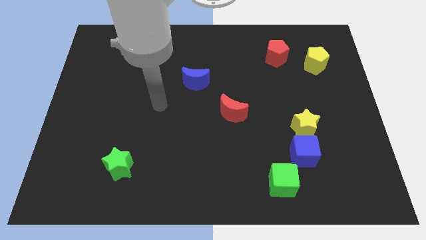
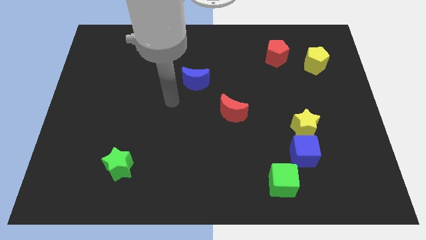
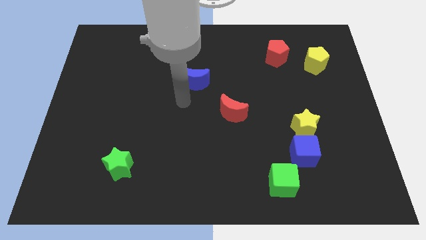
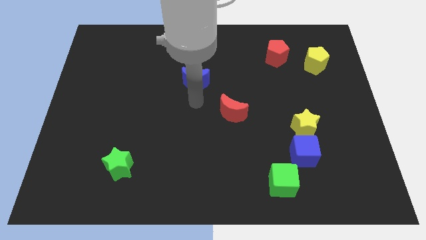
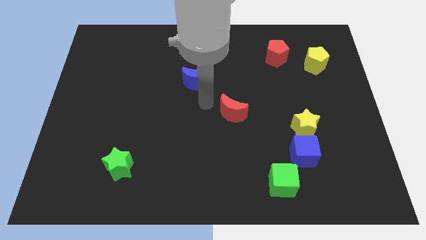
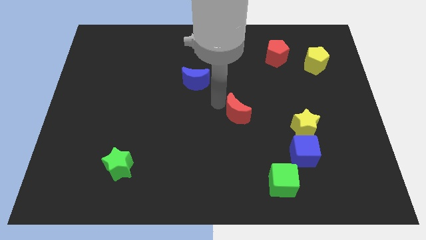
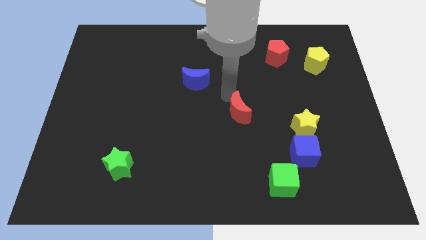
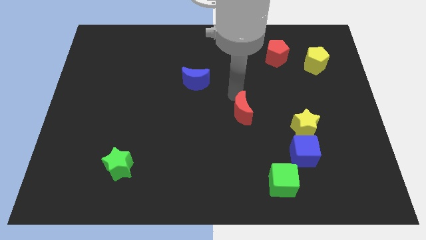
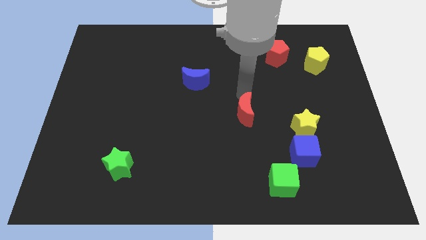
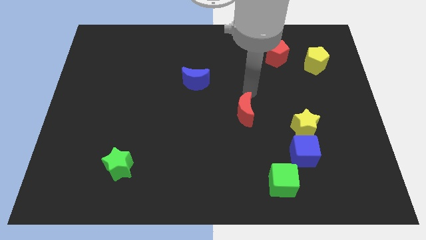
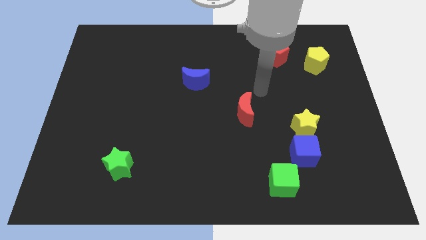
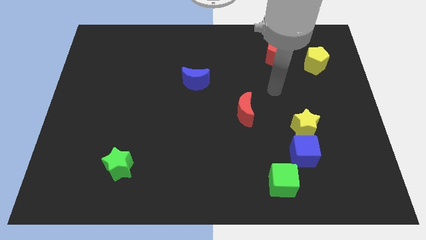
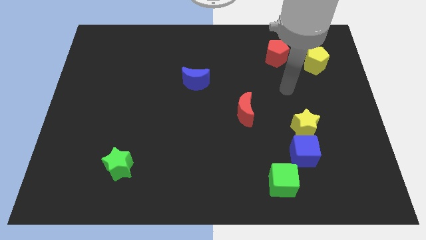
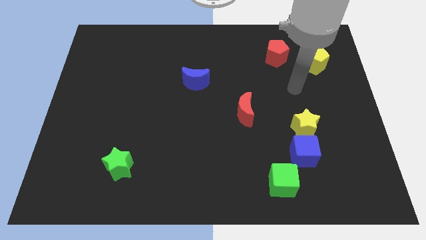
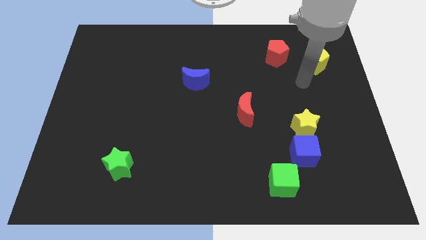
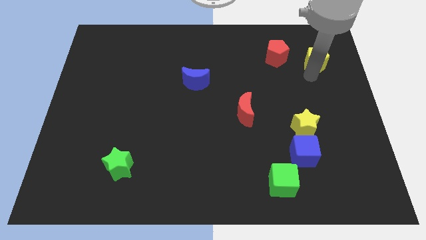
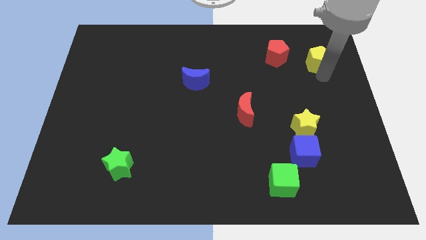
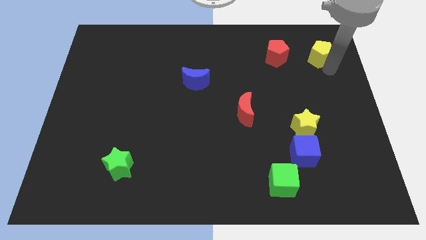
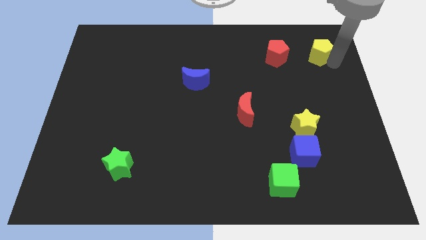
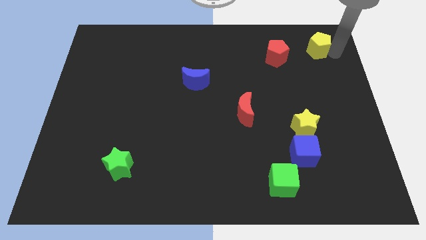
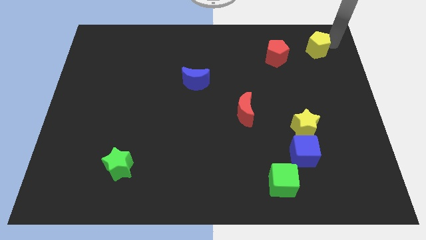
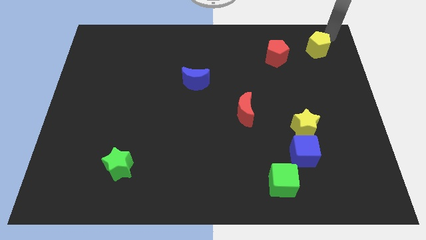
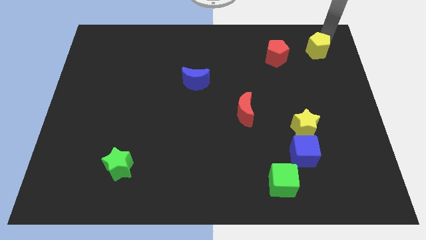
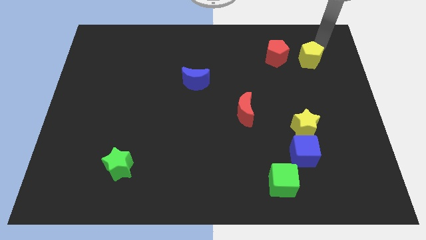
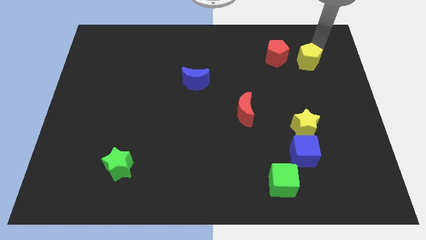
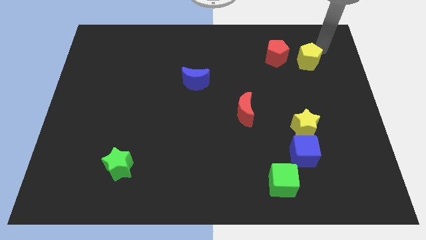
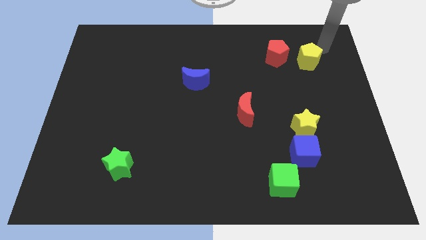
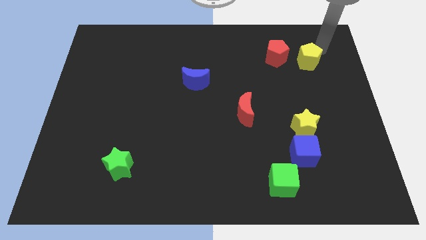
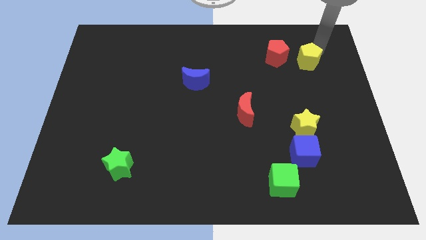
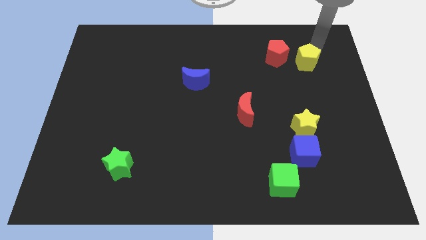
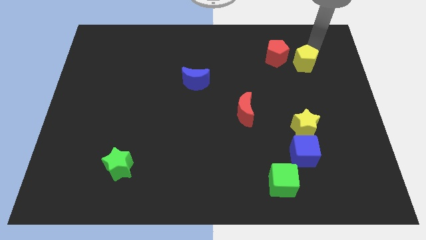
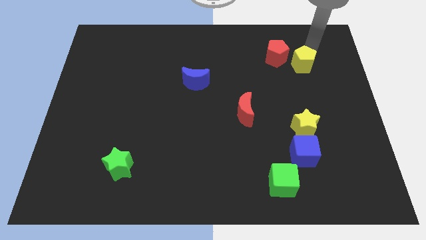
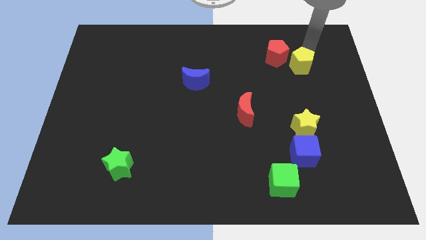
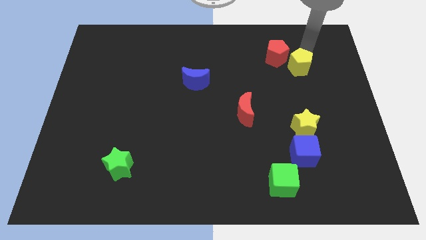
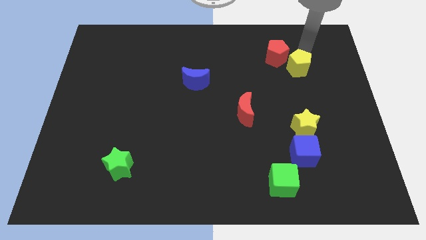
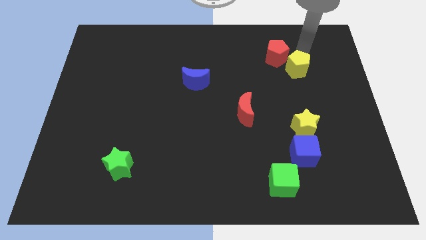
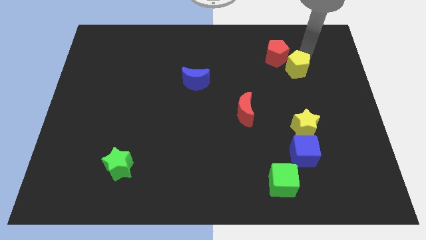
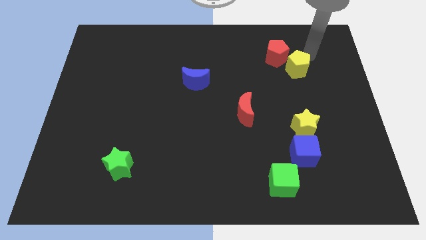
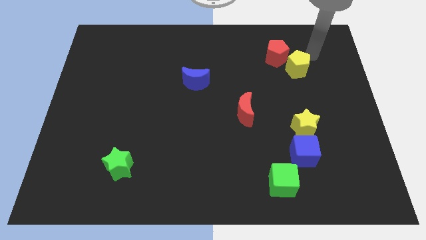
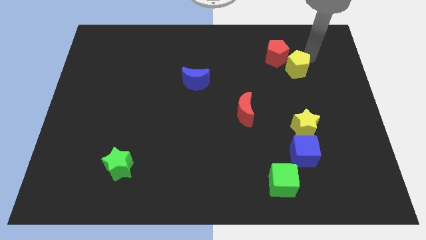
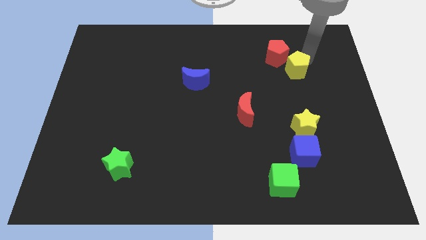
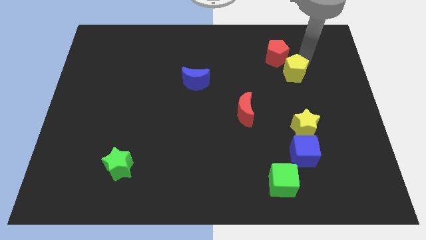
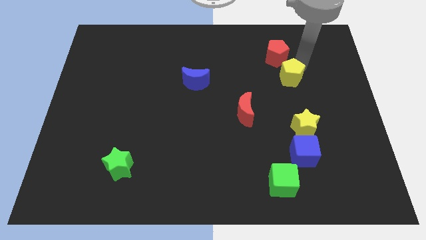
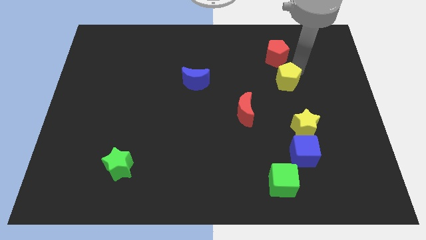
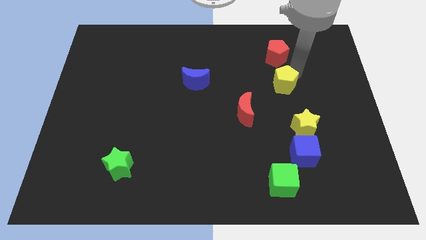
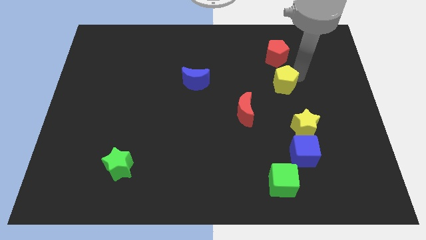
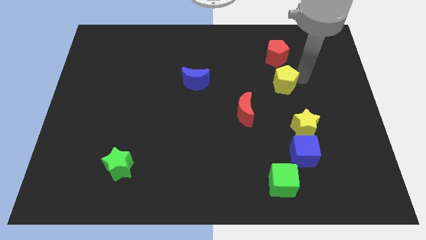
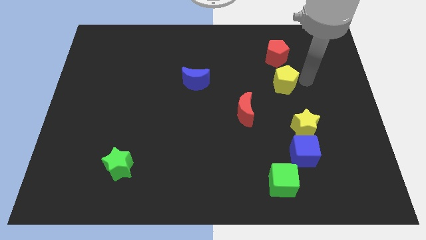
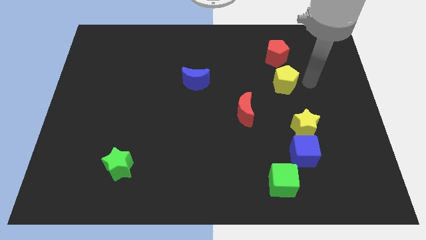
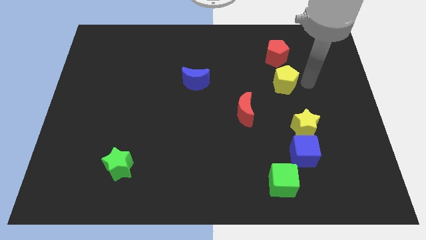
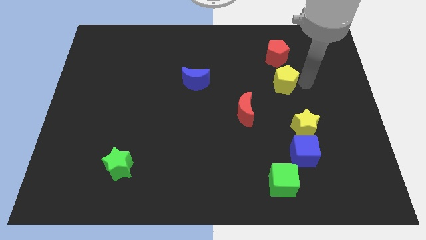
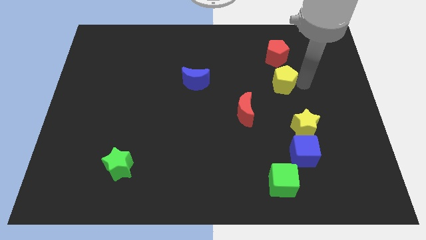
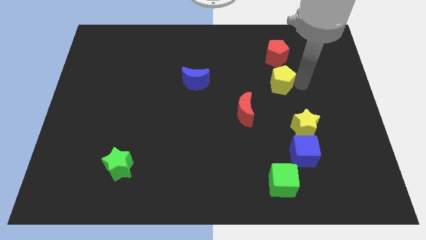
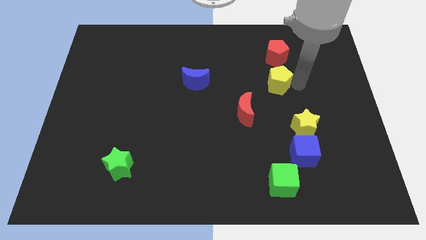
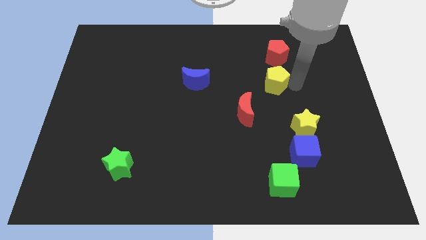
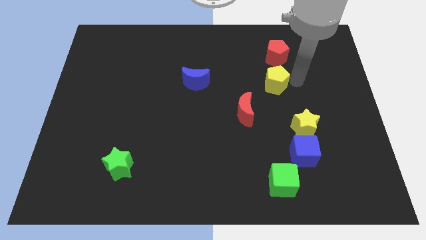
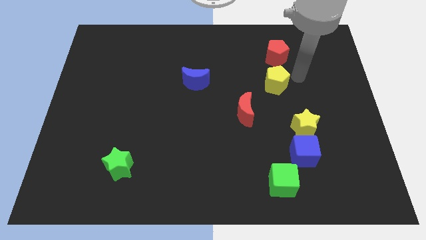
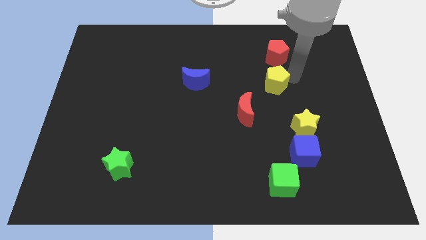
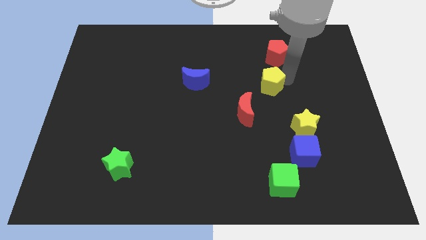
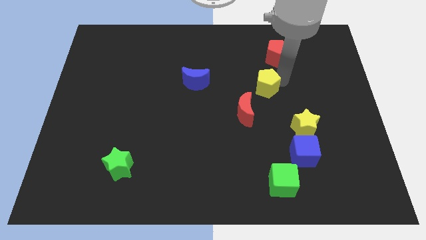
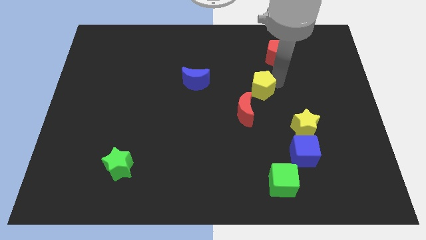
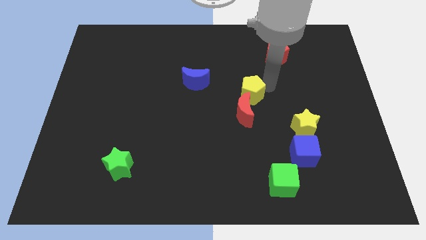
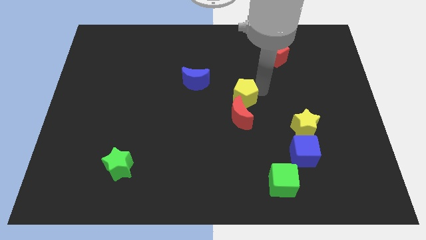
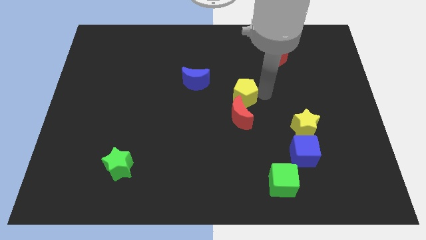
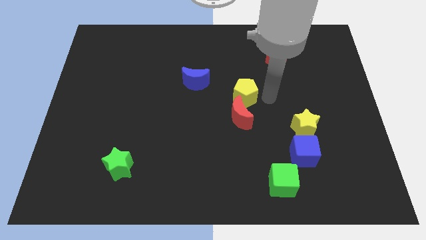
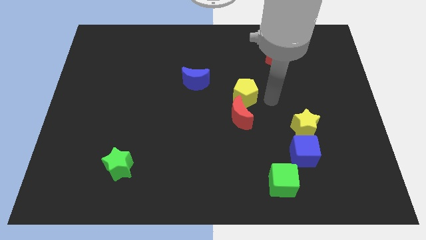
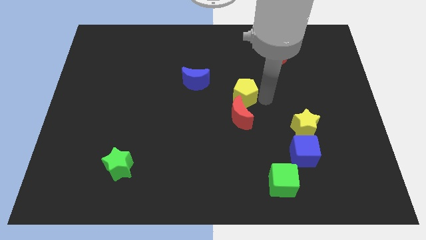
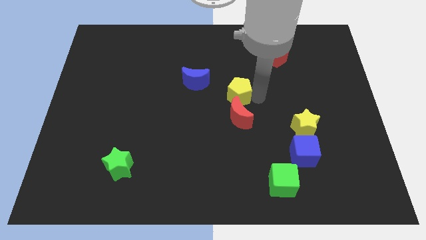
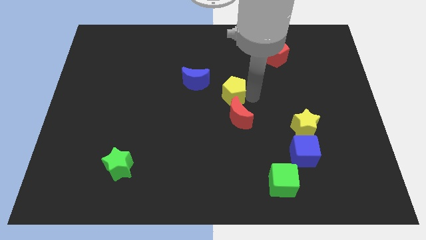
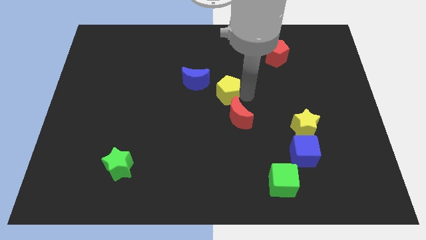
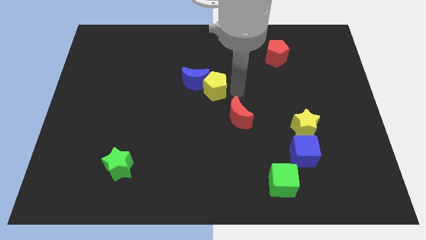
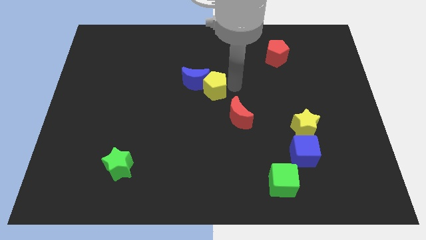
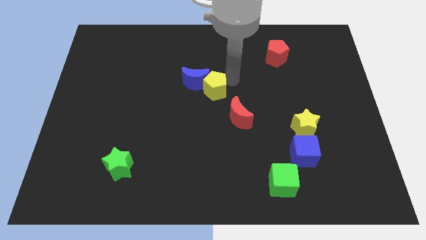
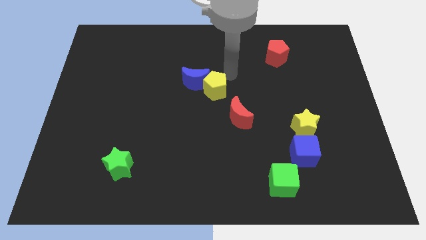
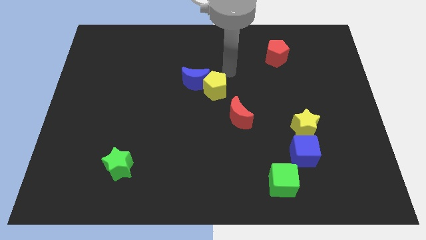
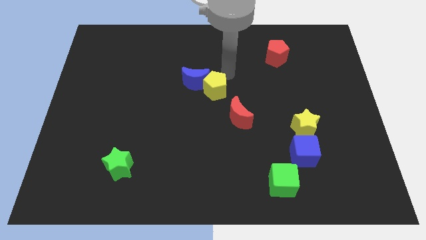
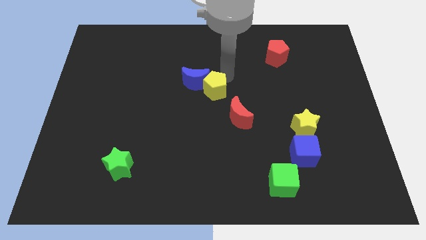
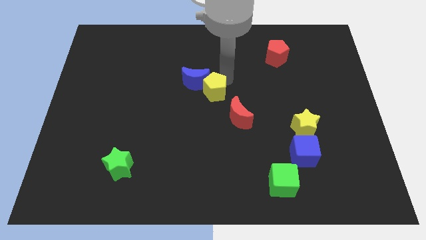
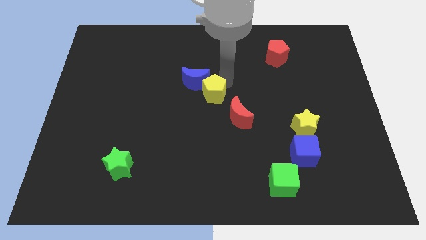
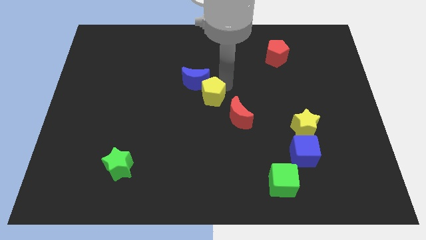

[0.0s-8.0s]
put the yellow pentagon to the bottom of the blue moon
